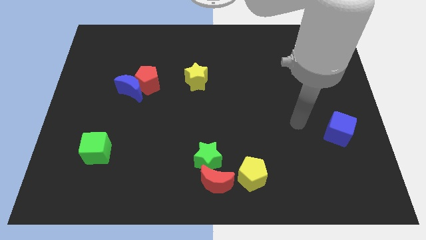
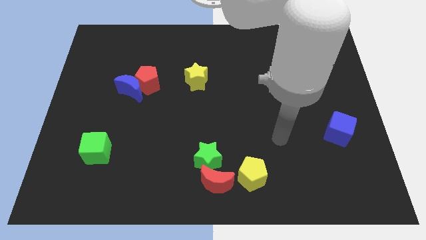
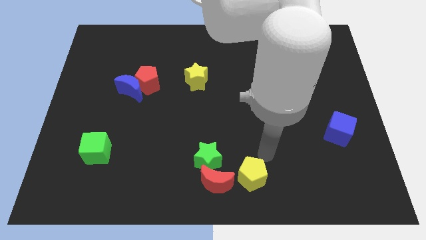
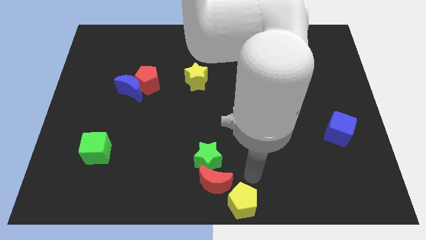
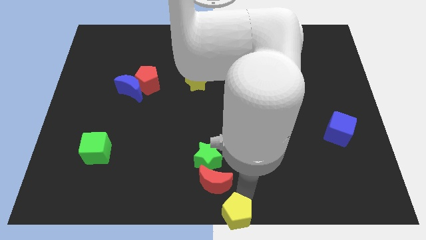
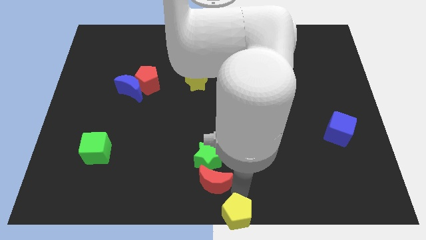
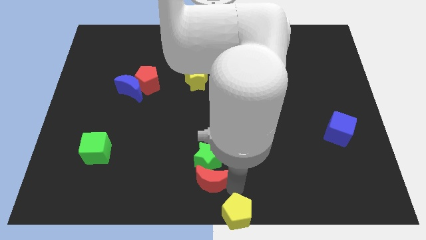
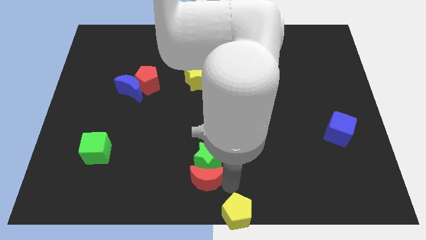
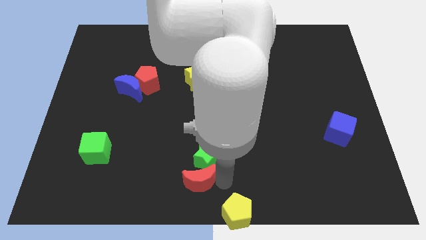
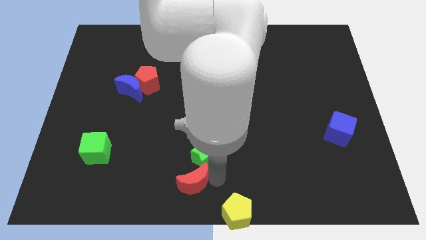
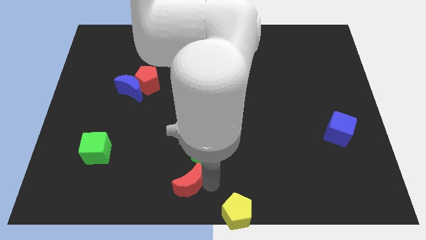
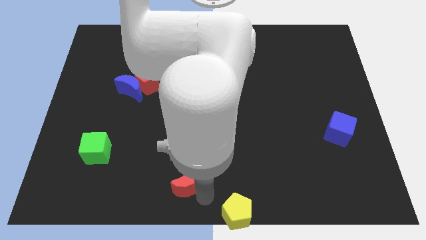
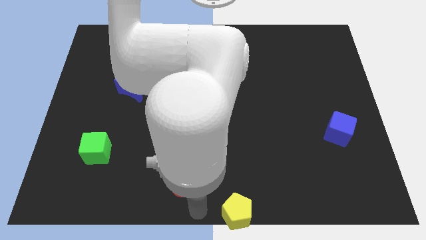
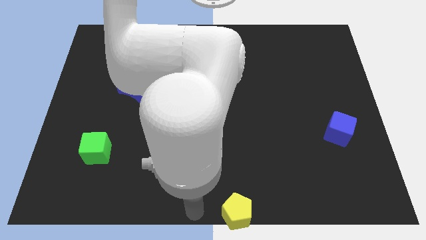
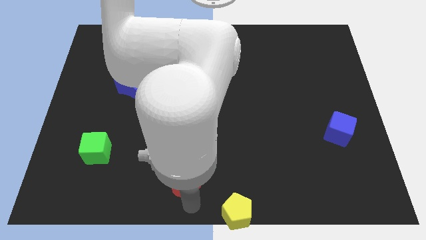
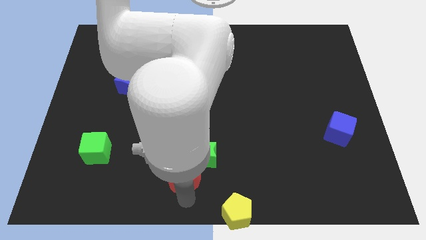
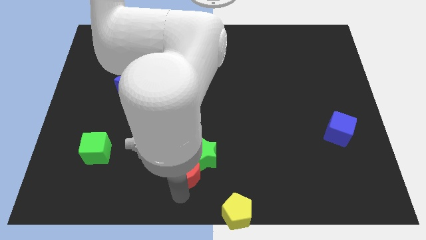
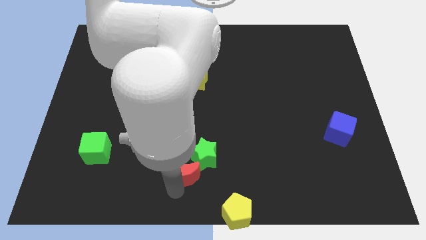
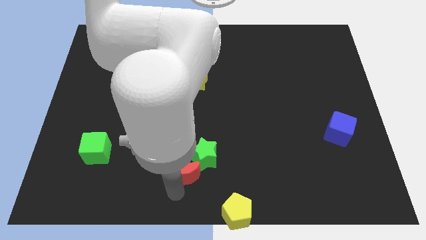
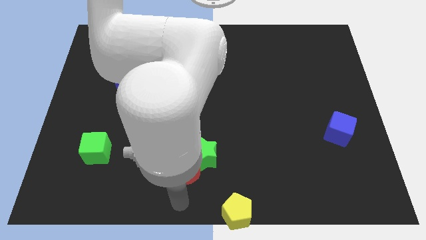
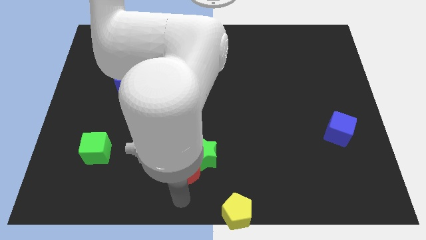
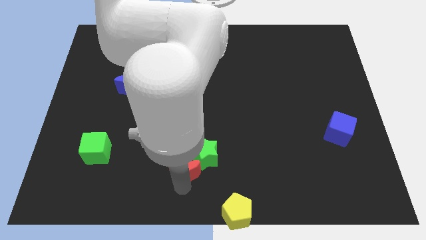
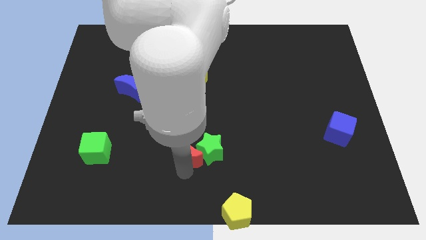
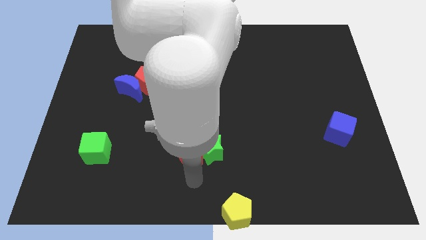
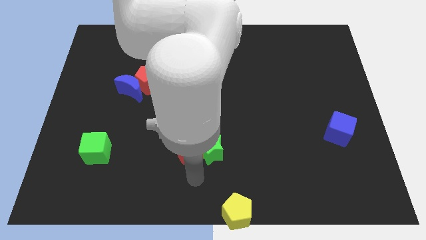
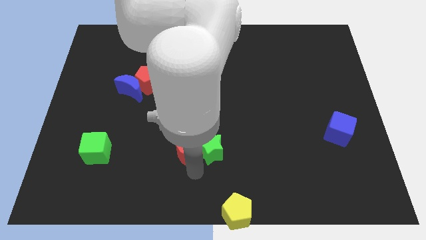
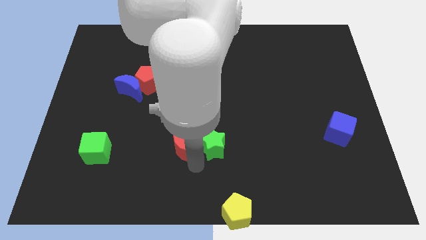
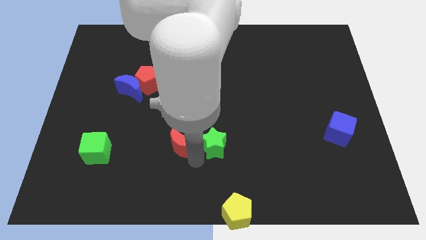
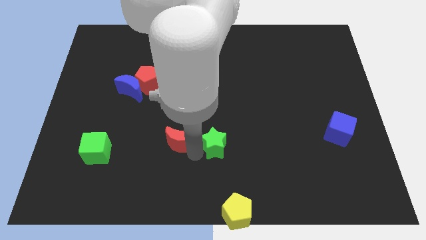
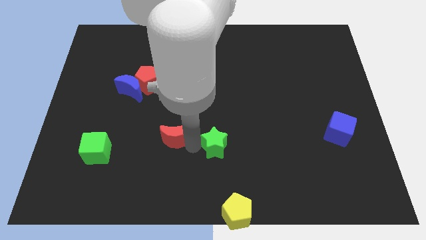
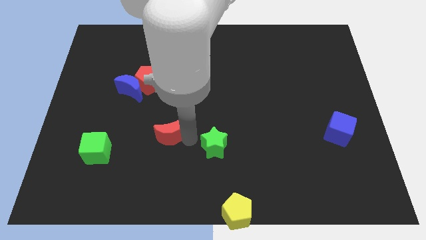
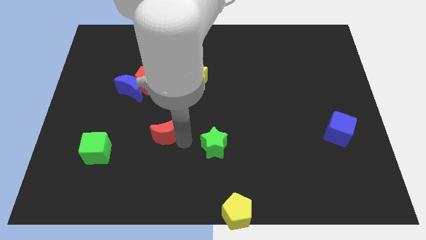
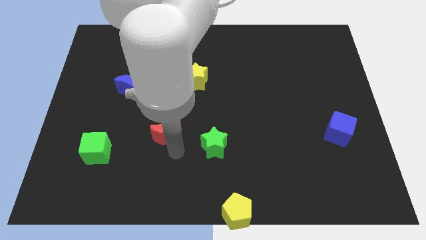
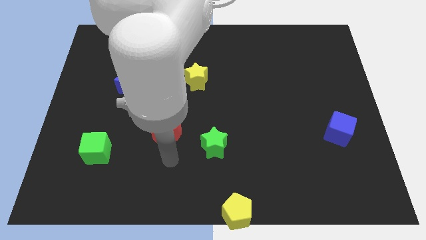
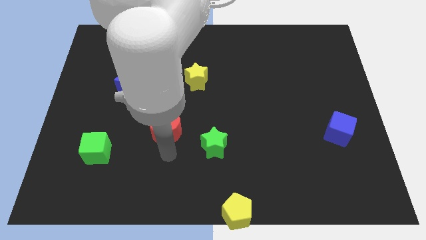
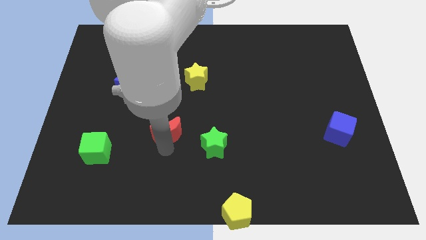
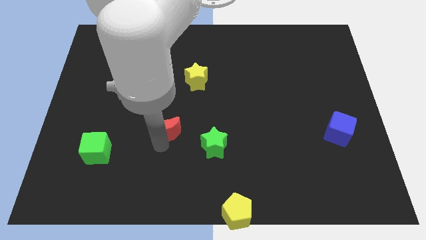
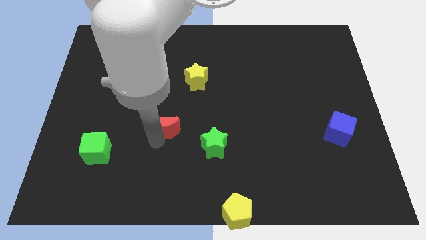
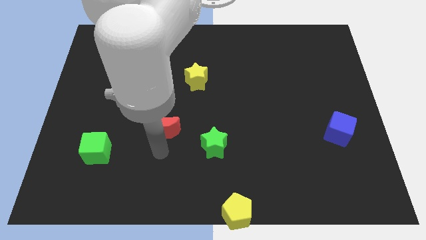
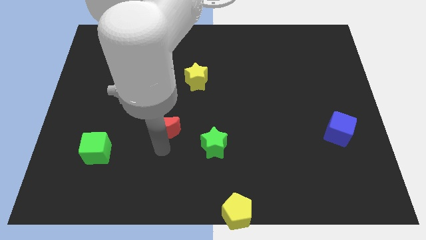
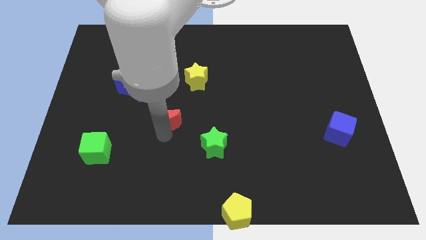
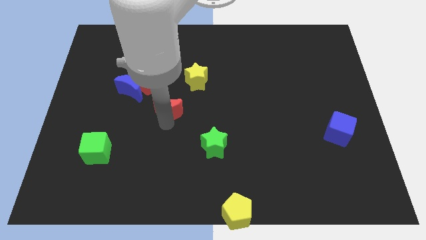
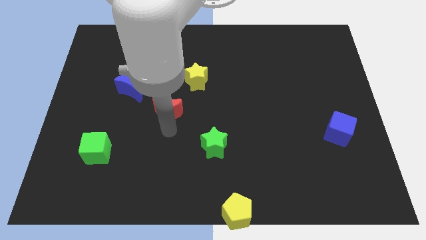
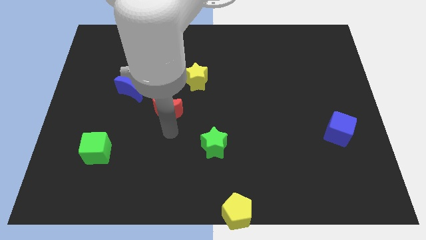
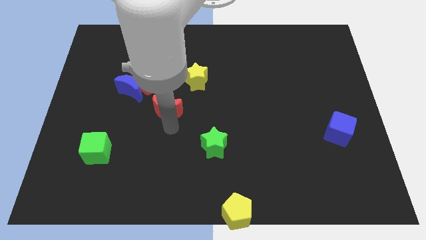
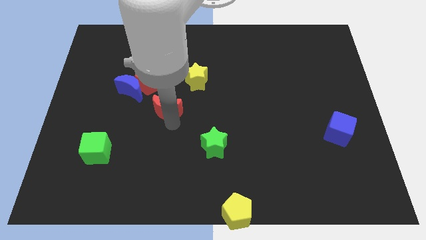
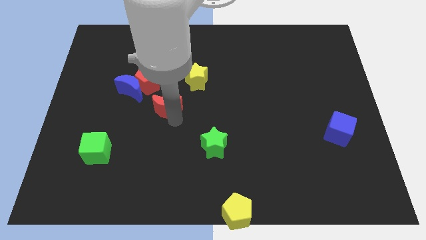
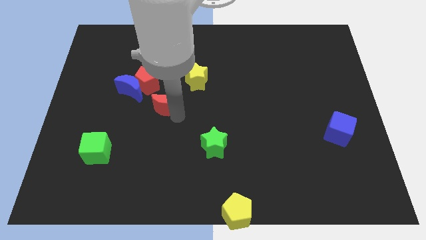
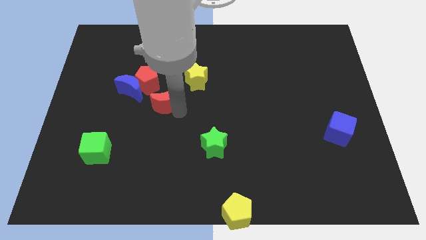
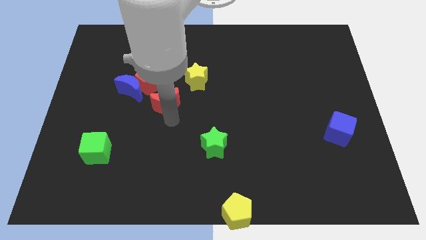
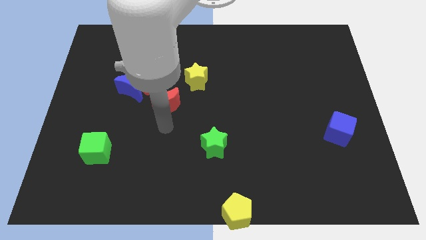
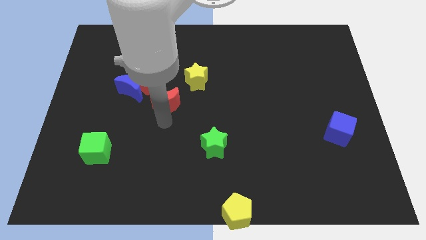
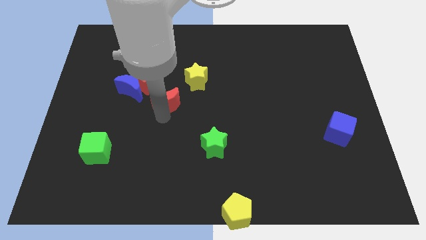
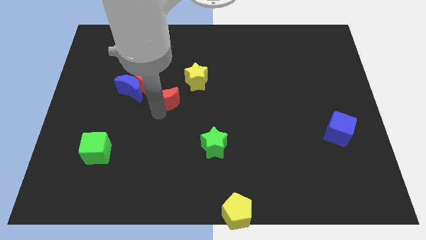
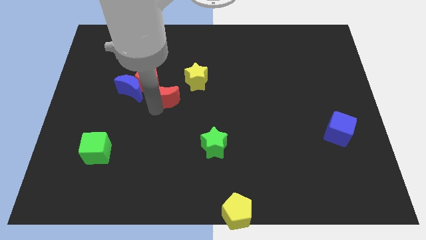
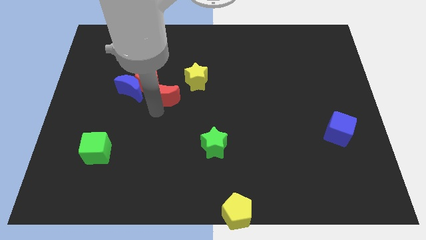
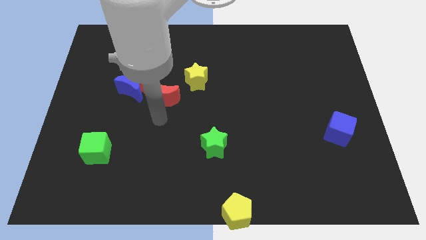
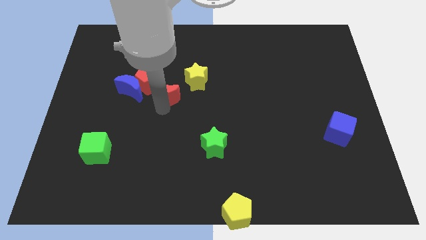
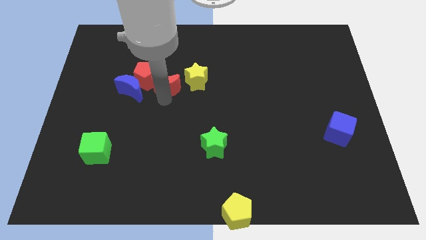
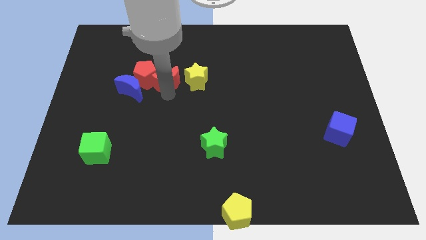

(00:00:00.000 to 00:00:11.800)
put the red moon diagonally up and to the right of the blue moon

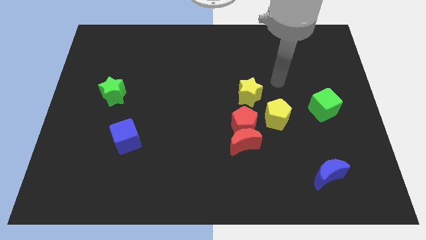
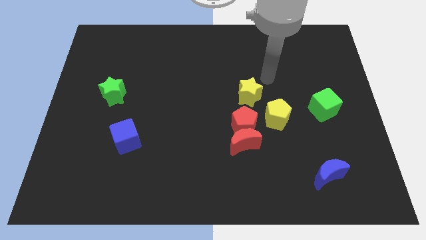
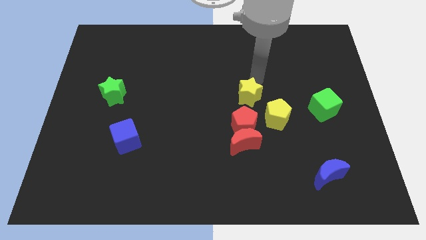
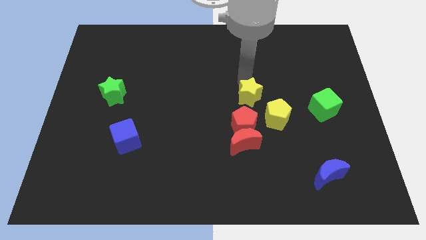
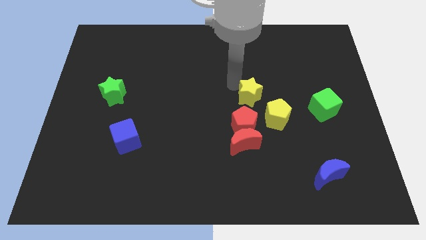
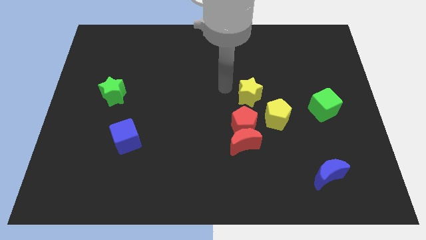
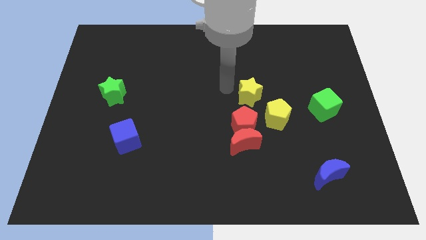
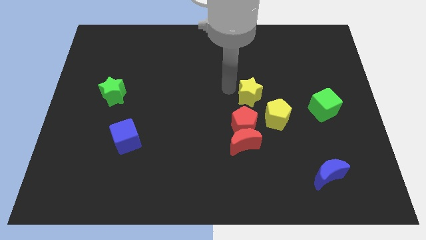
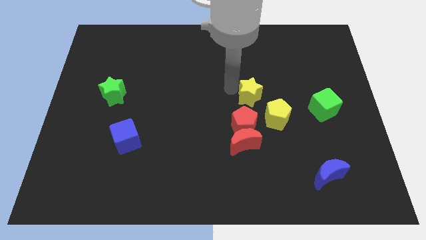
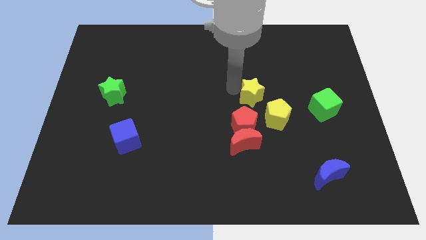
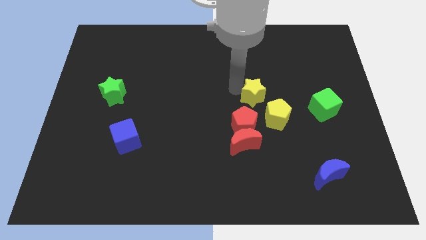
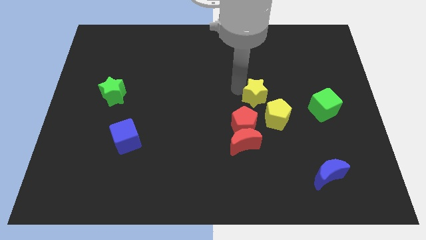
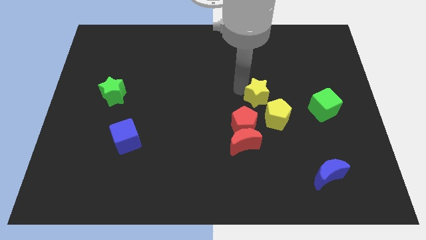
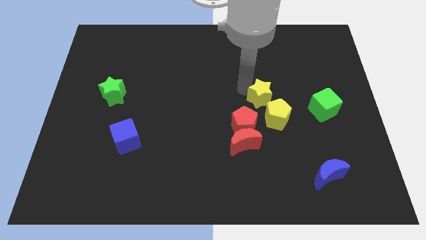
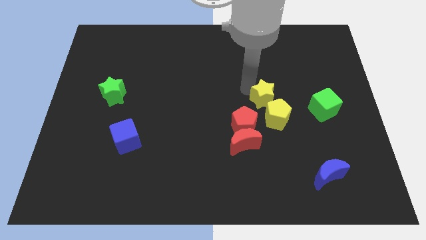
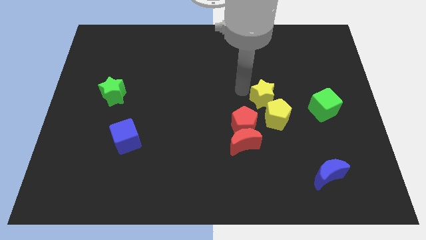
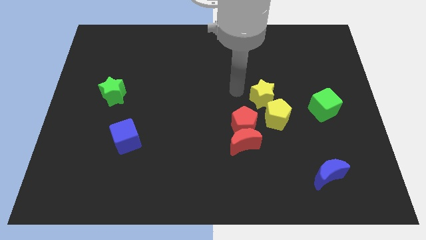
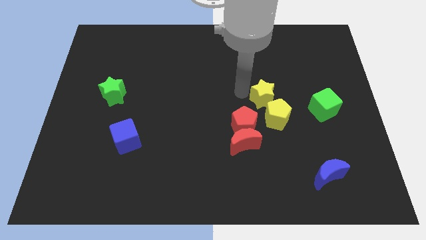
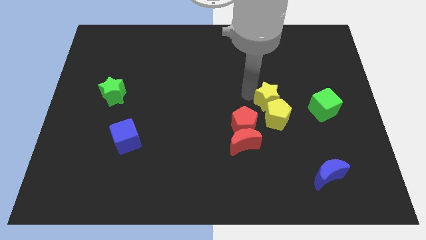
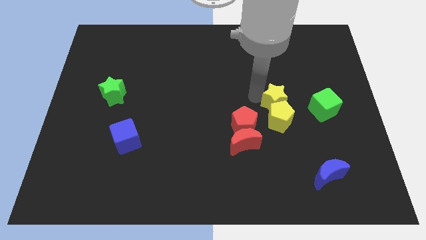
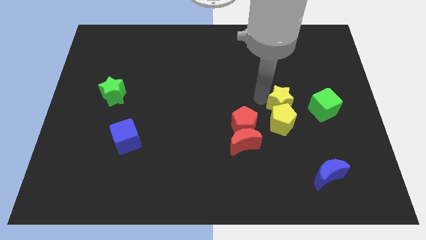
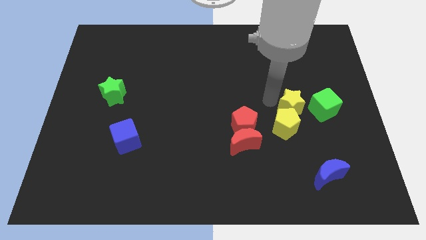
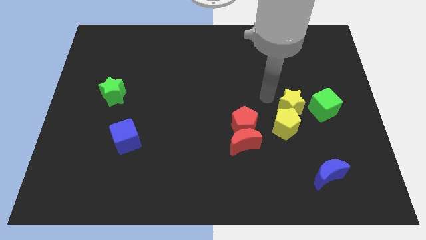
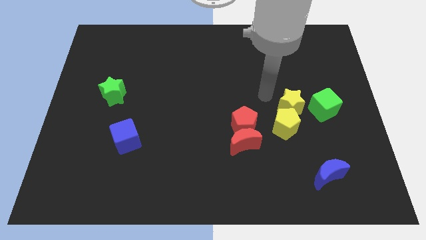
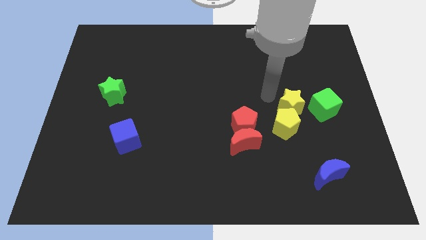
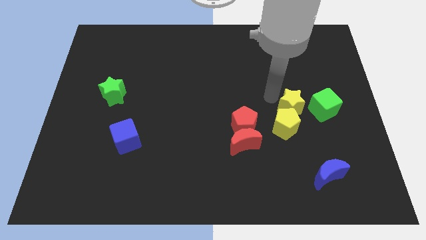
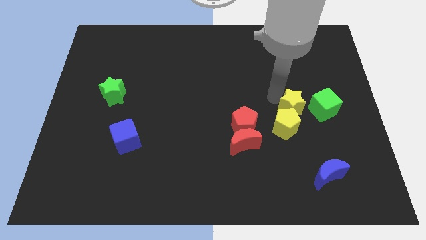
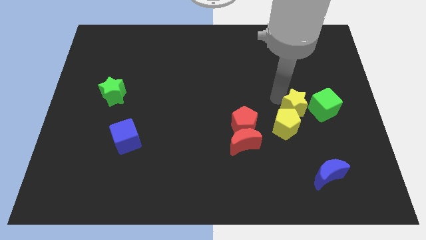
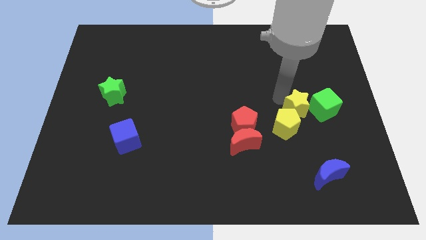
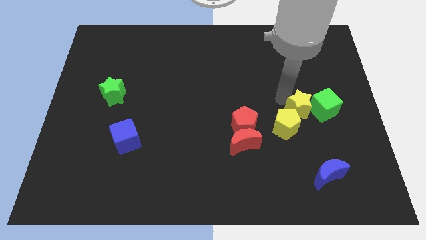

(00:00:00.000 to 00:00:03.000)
slide the yellow star to the right side of the yellow pentagon
